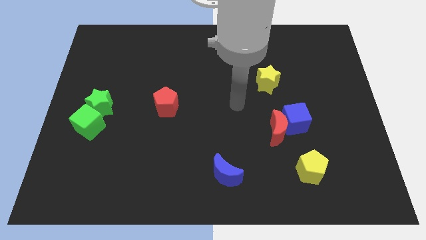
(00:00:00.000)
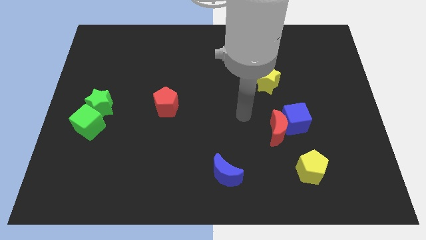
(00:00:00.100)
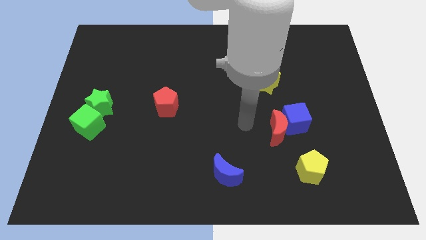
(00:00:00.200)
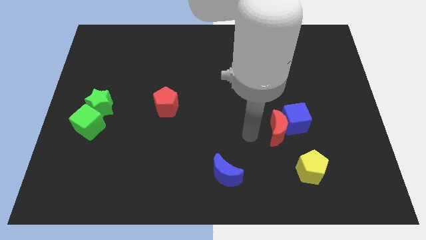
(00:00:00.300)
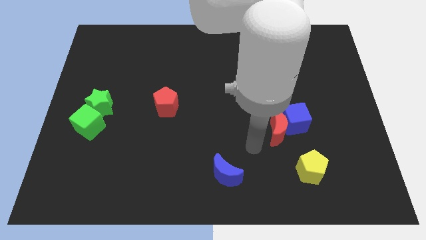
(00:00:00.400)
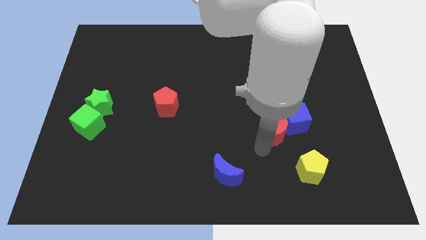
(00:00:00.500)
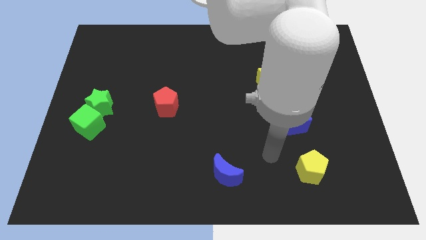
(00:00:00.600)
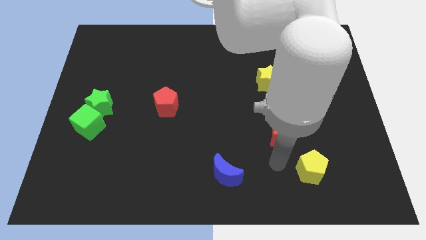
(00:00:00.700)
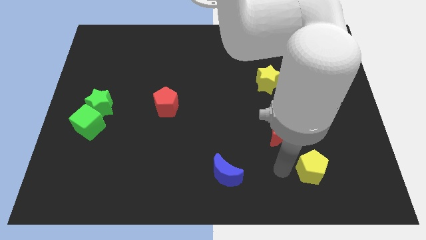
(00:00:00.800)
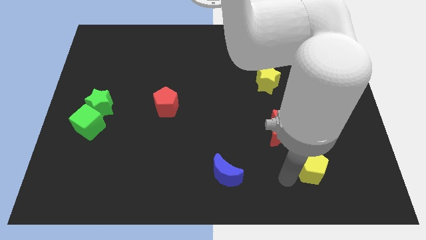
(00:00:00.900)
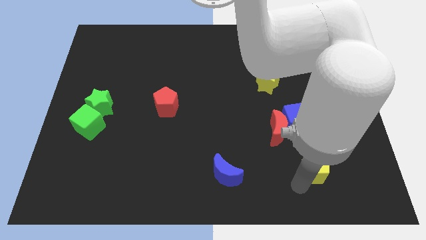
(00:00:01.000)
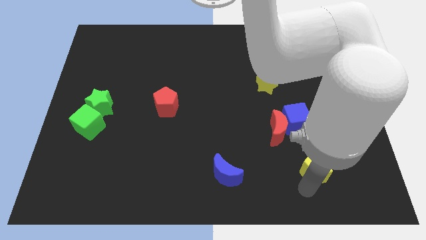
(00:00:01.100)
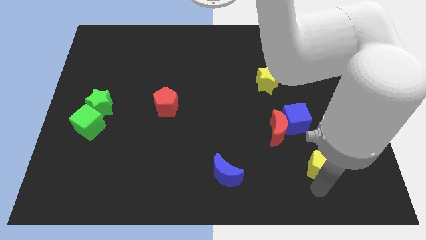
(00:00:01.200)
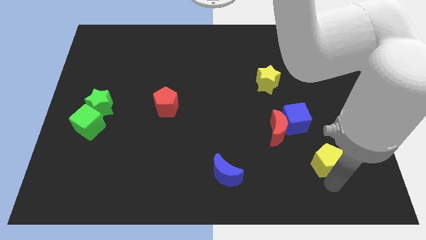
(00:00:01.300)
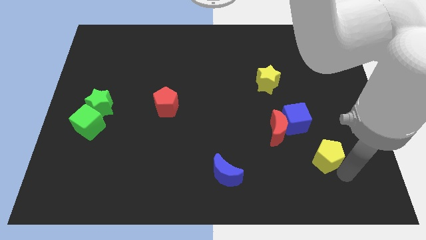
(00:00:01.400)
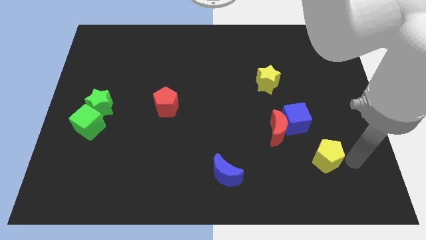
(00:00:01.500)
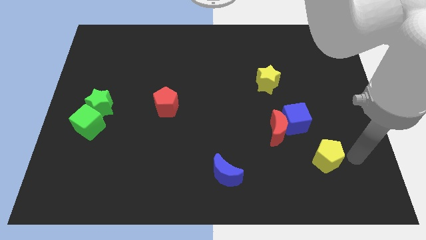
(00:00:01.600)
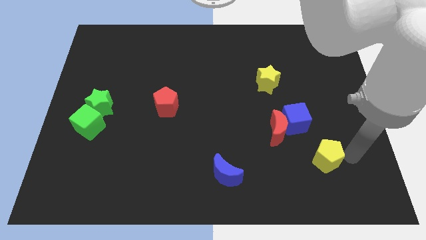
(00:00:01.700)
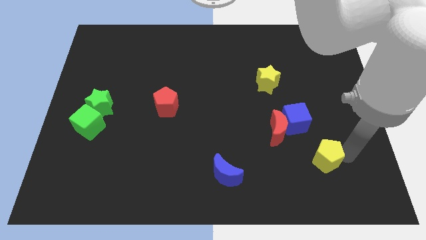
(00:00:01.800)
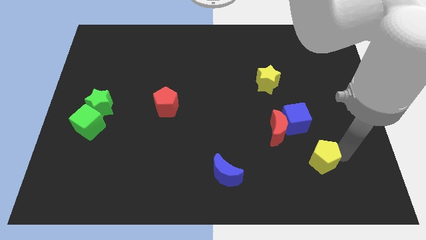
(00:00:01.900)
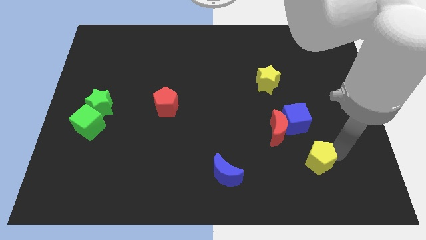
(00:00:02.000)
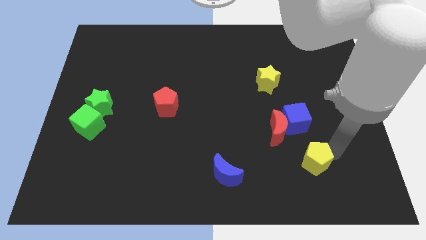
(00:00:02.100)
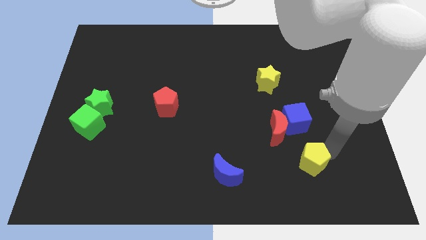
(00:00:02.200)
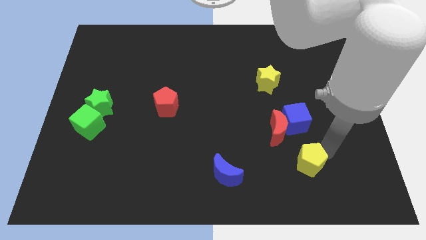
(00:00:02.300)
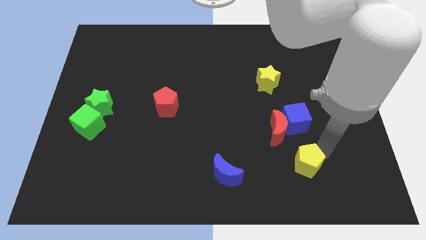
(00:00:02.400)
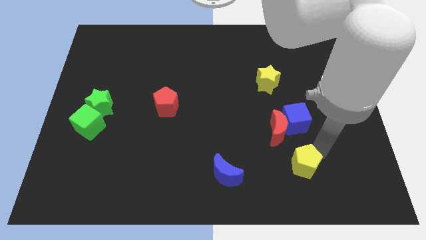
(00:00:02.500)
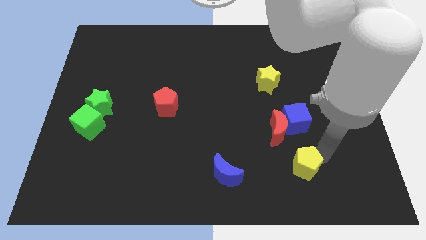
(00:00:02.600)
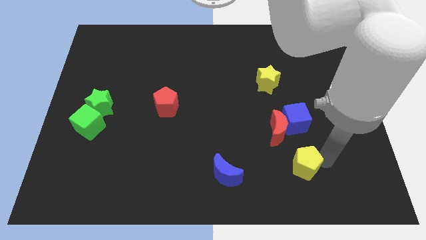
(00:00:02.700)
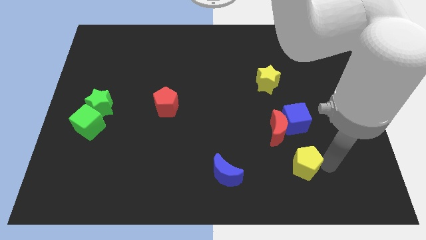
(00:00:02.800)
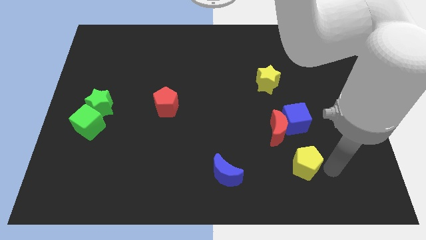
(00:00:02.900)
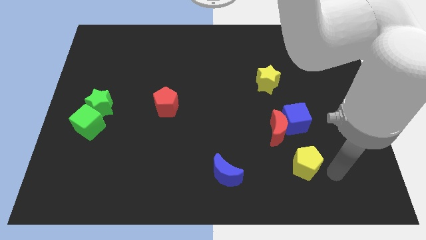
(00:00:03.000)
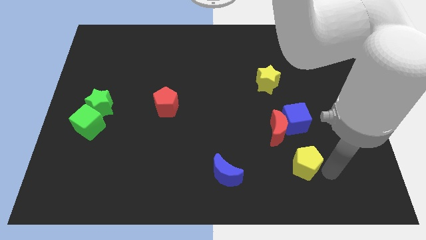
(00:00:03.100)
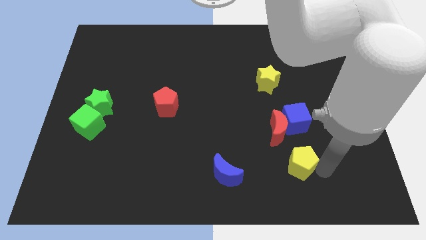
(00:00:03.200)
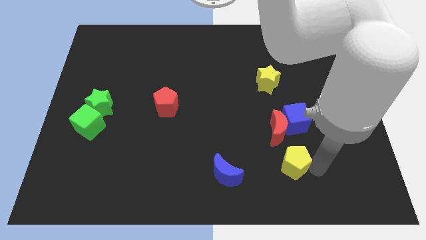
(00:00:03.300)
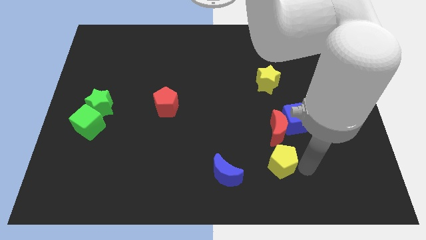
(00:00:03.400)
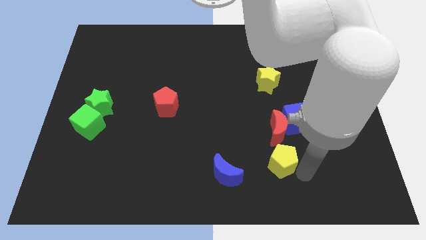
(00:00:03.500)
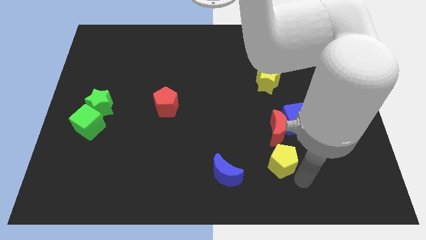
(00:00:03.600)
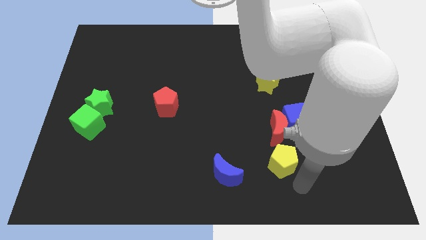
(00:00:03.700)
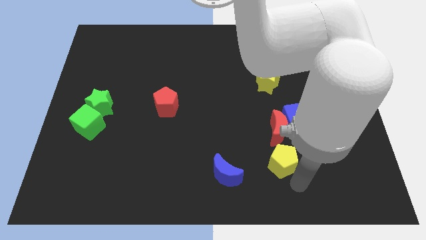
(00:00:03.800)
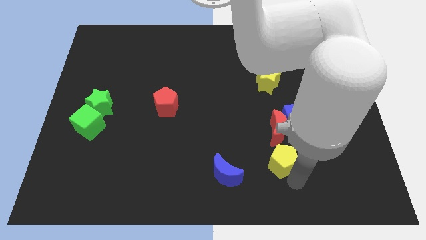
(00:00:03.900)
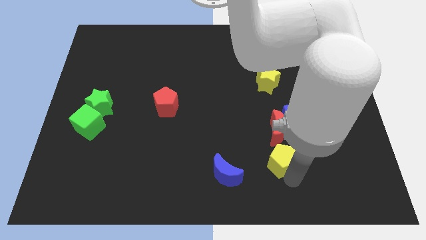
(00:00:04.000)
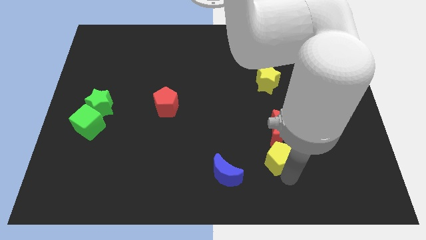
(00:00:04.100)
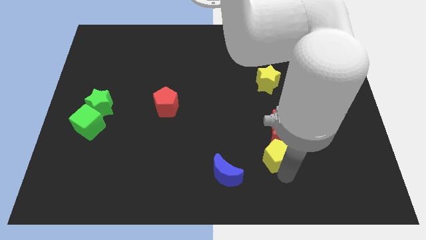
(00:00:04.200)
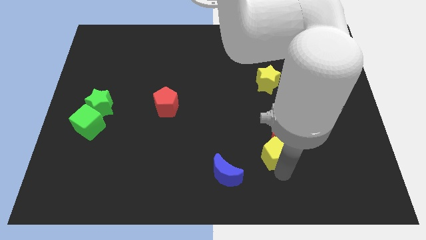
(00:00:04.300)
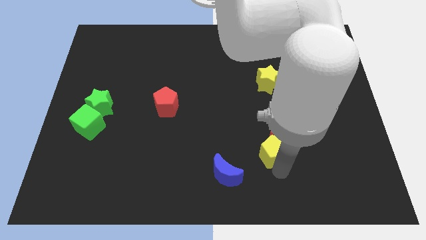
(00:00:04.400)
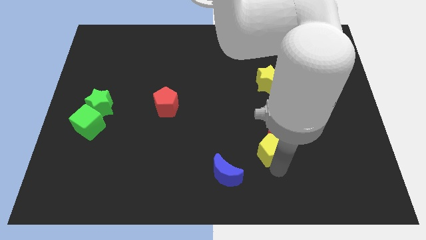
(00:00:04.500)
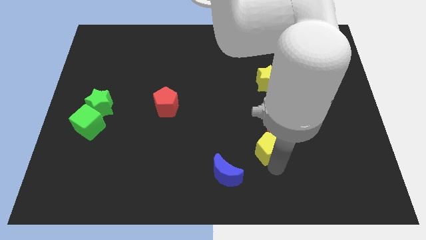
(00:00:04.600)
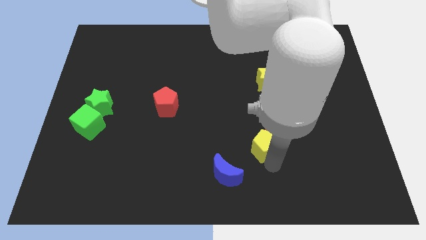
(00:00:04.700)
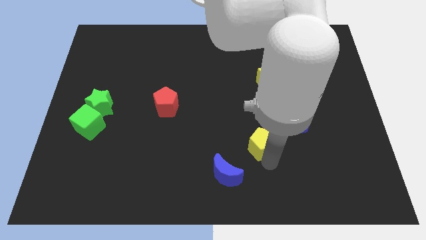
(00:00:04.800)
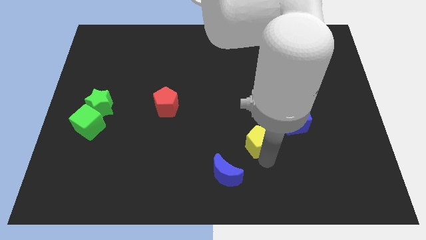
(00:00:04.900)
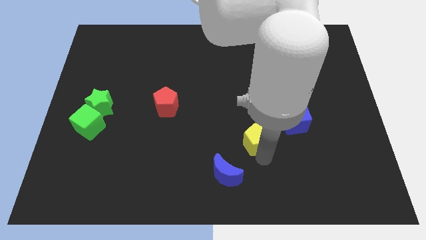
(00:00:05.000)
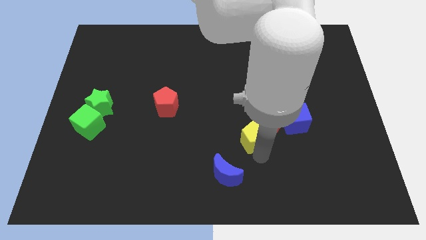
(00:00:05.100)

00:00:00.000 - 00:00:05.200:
slide the yellow pentagon to the left side of the blue cube

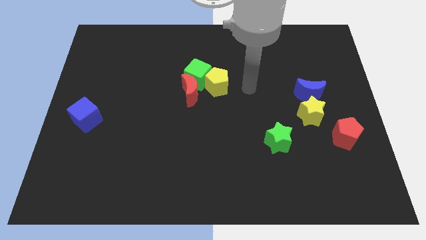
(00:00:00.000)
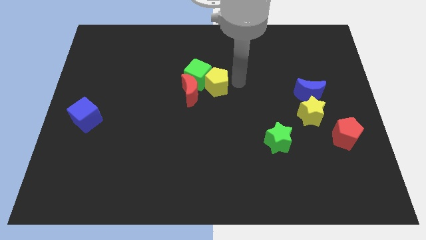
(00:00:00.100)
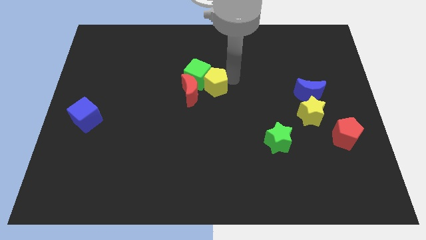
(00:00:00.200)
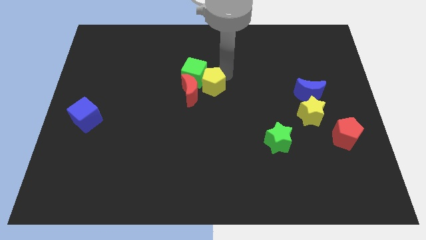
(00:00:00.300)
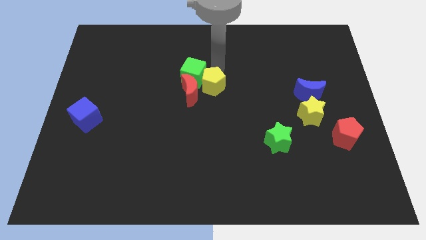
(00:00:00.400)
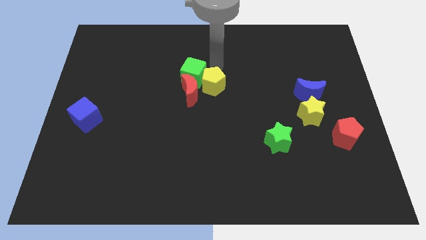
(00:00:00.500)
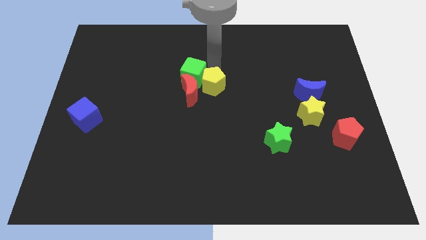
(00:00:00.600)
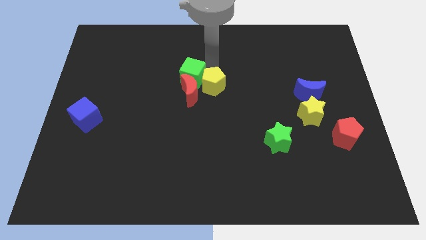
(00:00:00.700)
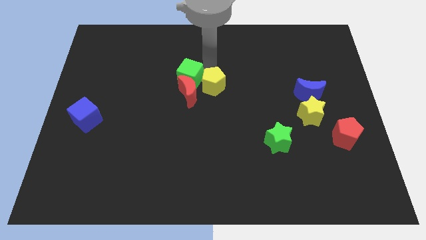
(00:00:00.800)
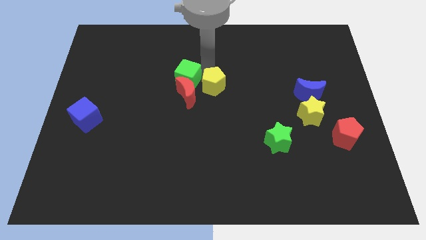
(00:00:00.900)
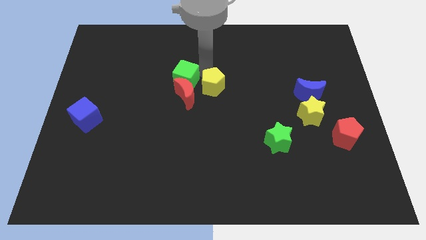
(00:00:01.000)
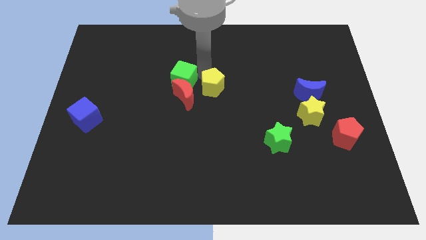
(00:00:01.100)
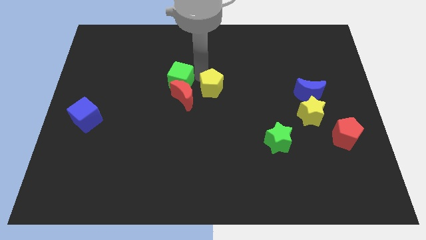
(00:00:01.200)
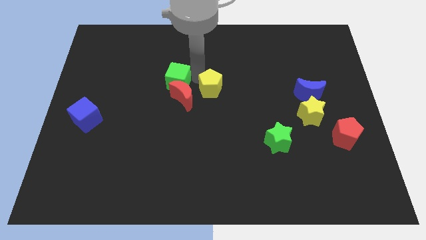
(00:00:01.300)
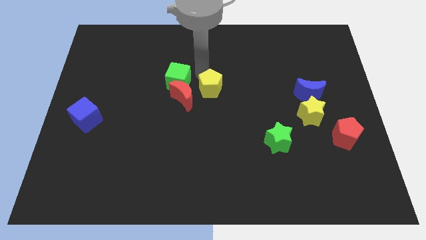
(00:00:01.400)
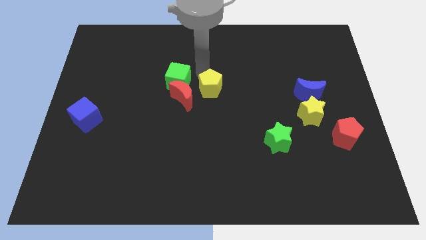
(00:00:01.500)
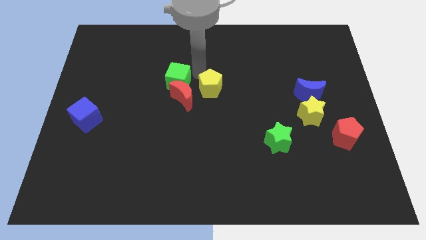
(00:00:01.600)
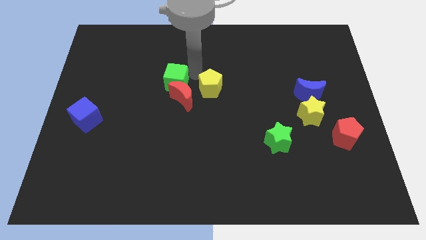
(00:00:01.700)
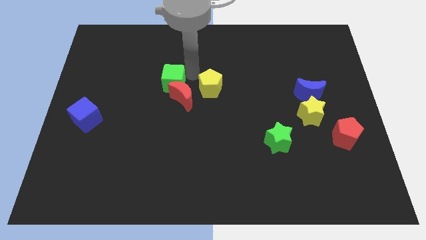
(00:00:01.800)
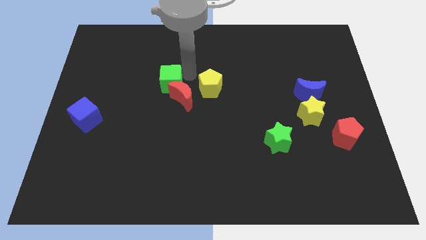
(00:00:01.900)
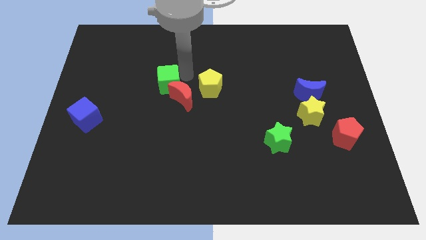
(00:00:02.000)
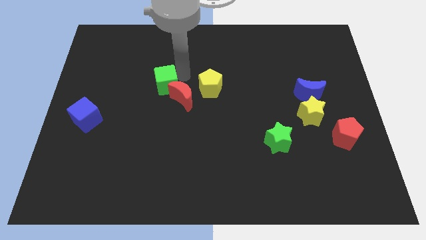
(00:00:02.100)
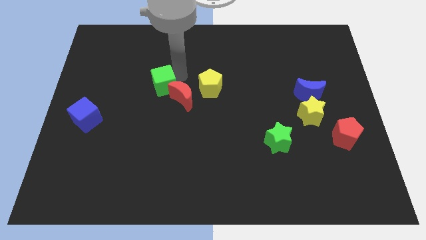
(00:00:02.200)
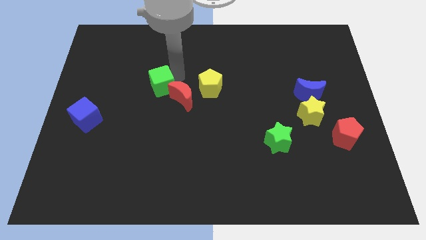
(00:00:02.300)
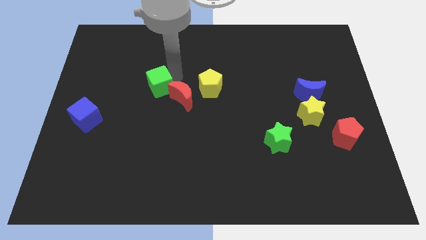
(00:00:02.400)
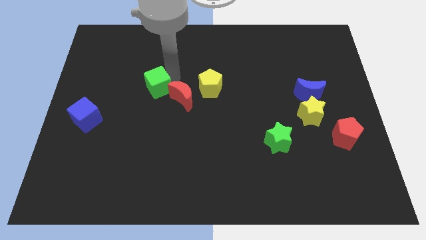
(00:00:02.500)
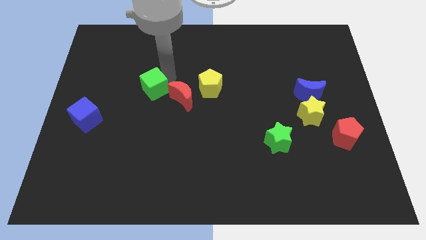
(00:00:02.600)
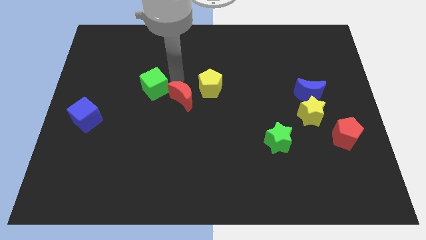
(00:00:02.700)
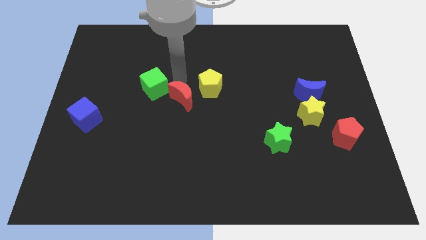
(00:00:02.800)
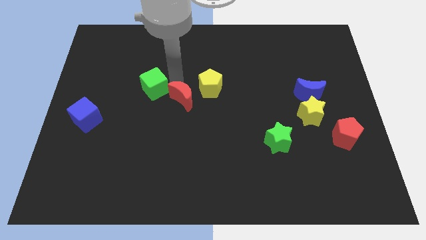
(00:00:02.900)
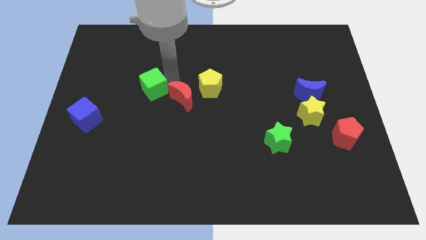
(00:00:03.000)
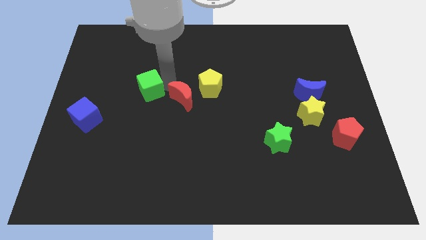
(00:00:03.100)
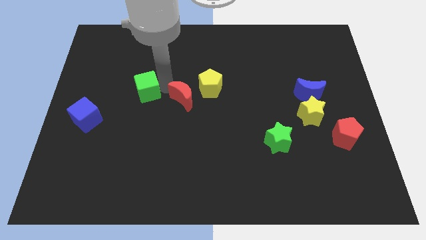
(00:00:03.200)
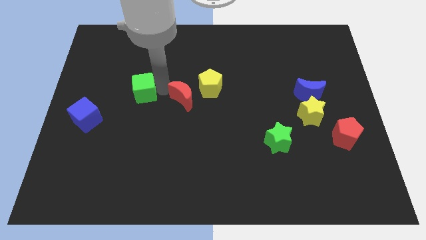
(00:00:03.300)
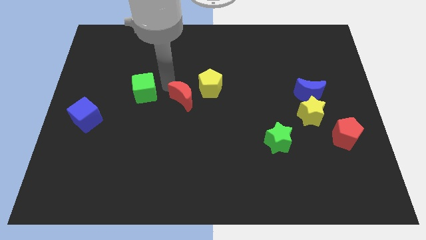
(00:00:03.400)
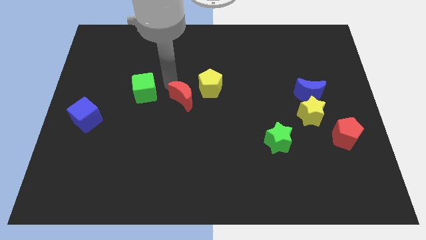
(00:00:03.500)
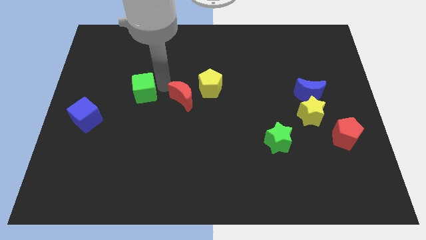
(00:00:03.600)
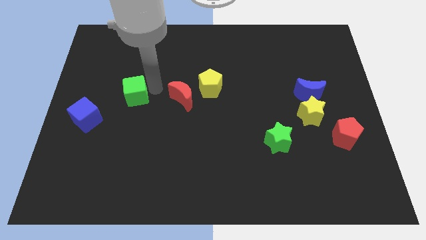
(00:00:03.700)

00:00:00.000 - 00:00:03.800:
push the green cube diagonally up and to the right of the blue cube
